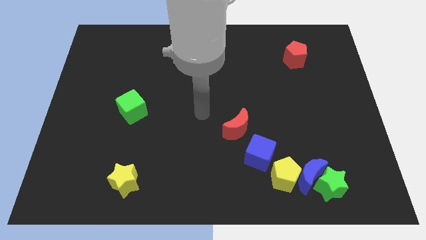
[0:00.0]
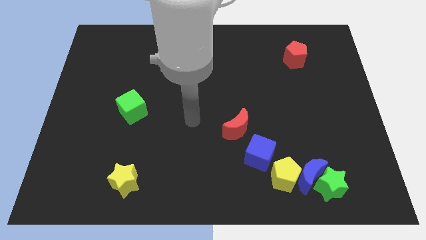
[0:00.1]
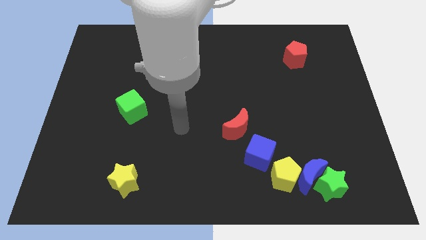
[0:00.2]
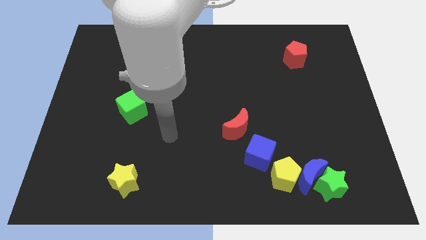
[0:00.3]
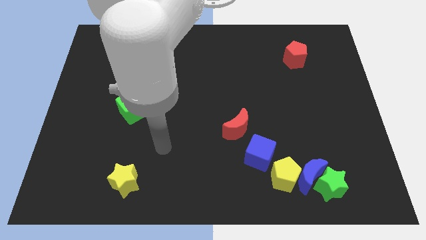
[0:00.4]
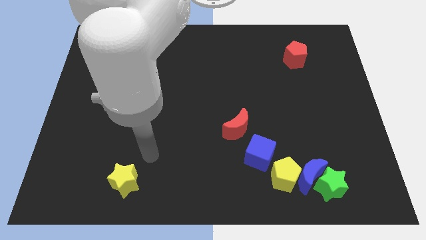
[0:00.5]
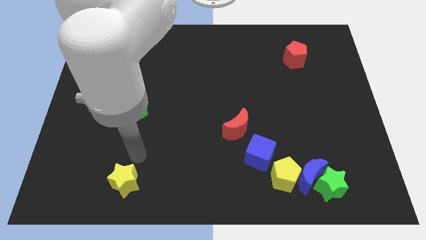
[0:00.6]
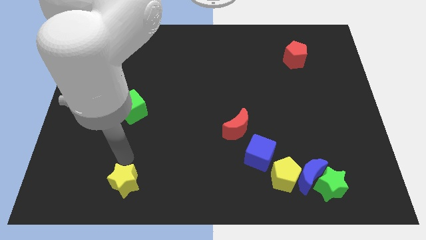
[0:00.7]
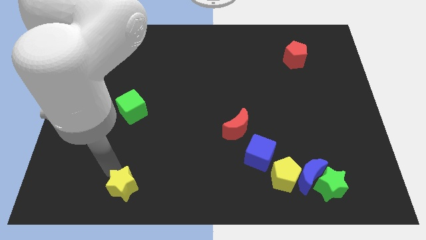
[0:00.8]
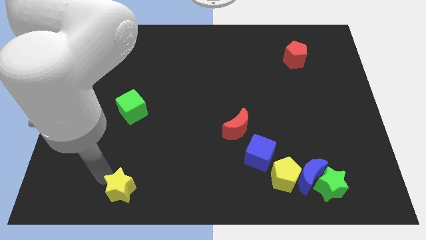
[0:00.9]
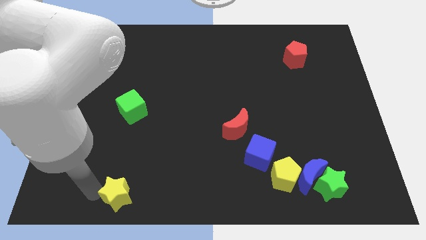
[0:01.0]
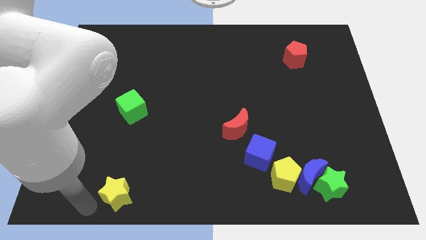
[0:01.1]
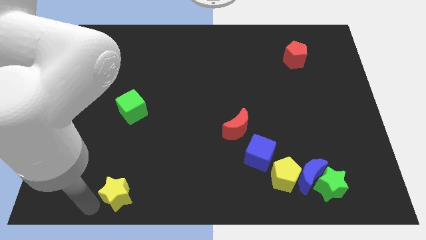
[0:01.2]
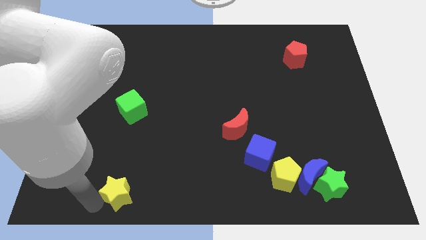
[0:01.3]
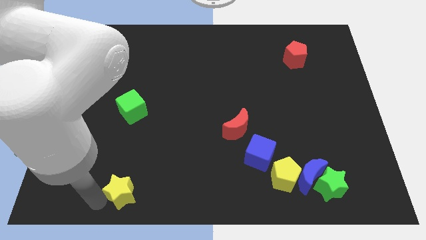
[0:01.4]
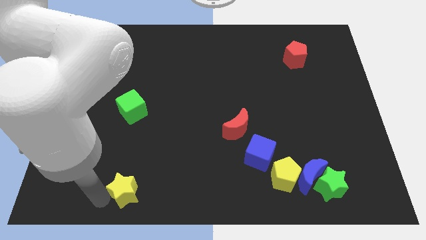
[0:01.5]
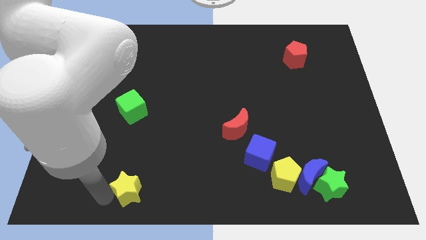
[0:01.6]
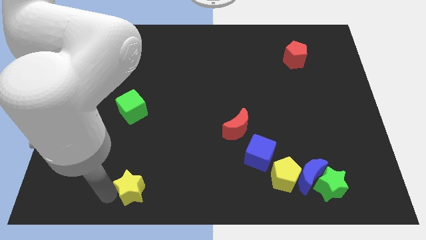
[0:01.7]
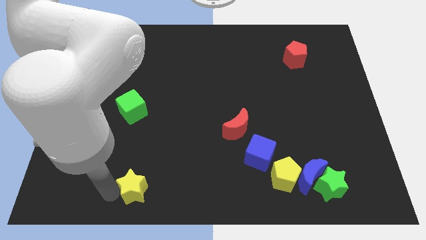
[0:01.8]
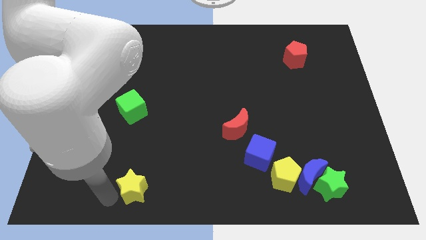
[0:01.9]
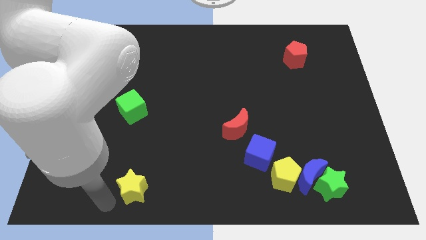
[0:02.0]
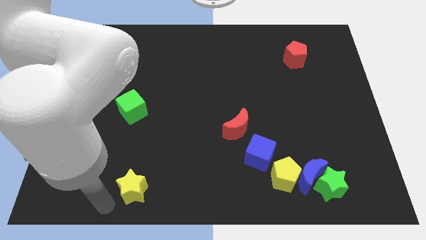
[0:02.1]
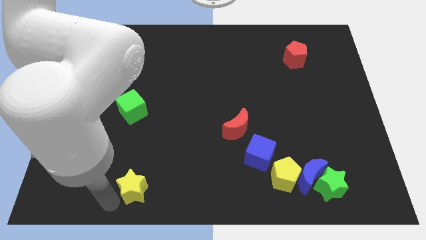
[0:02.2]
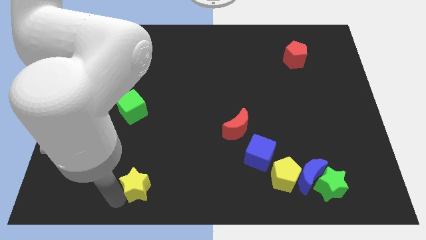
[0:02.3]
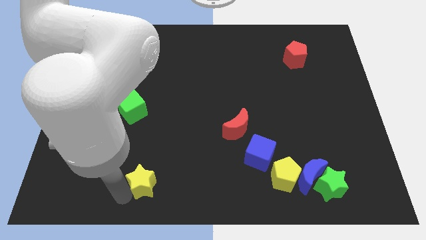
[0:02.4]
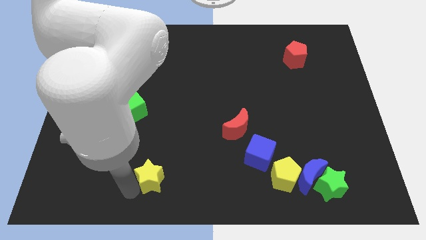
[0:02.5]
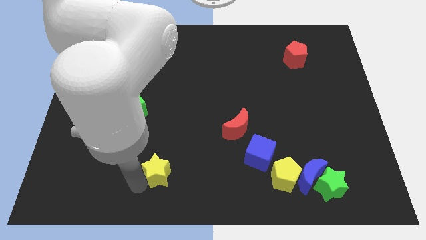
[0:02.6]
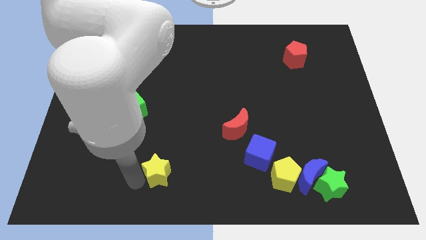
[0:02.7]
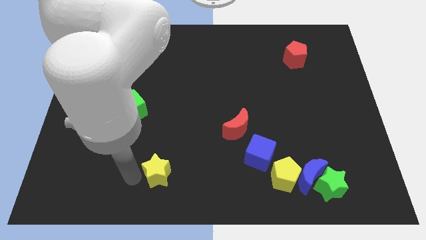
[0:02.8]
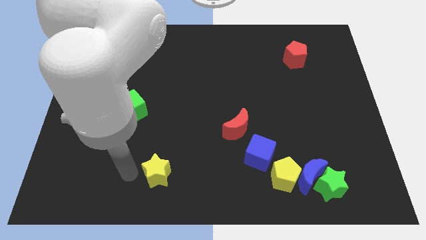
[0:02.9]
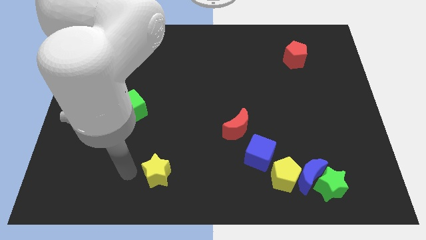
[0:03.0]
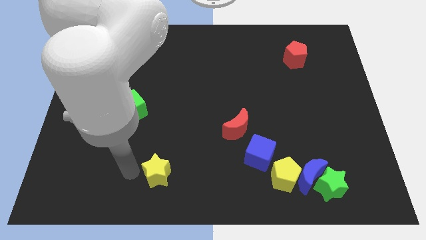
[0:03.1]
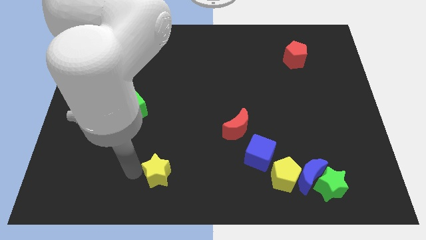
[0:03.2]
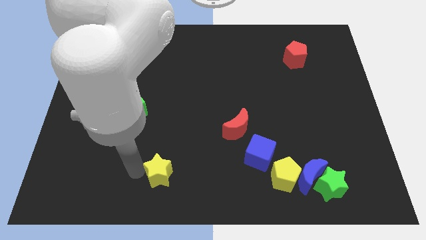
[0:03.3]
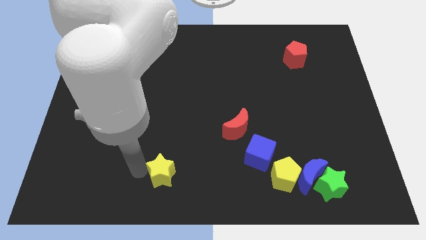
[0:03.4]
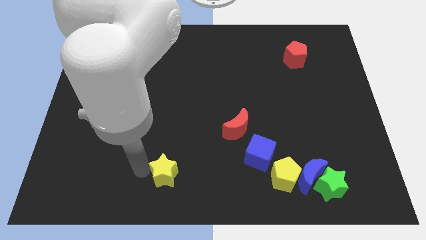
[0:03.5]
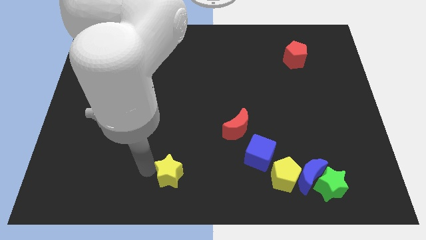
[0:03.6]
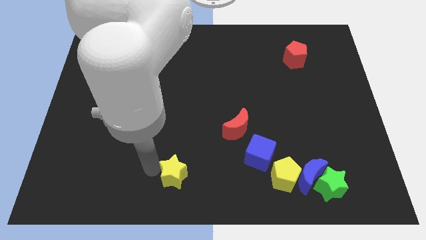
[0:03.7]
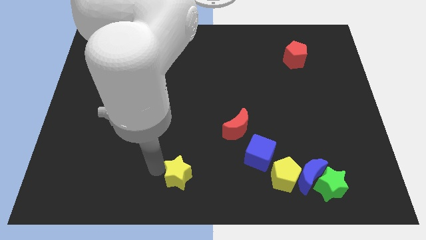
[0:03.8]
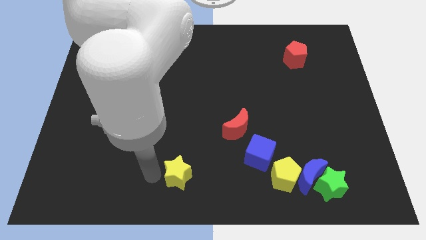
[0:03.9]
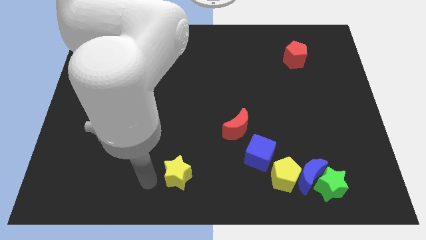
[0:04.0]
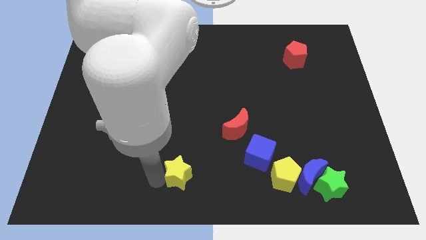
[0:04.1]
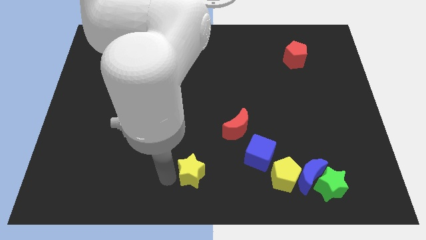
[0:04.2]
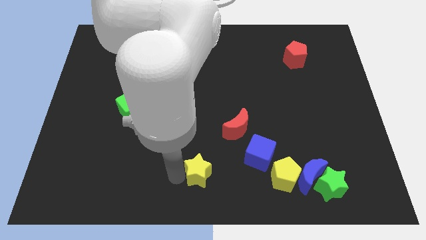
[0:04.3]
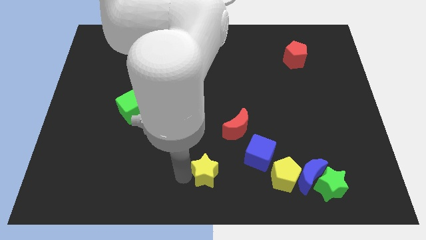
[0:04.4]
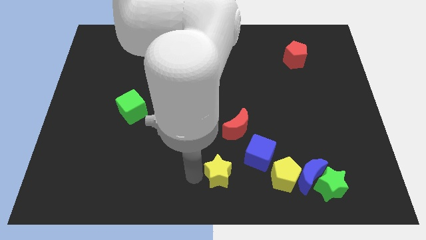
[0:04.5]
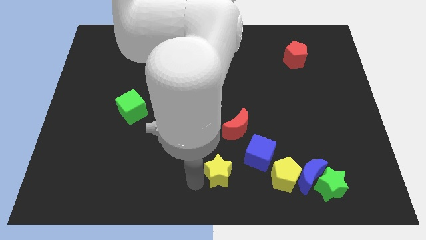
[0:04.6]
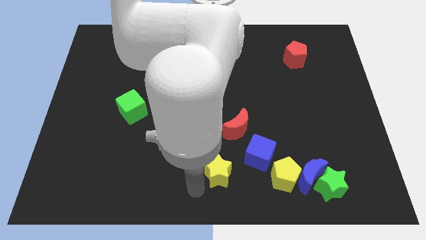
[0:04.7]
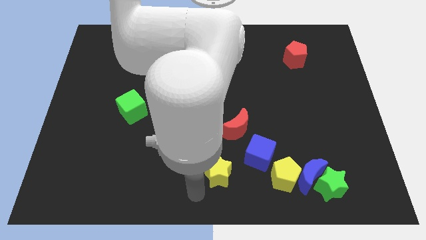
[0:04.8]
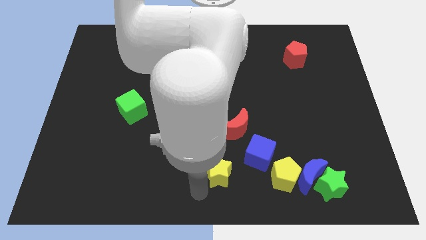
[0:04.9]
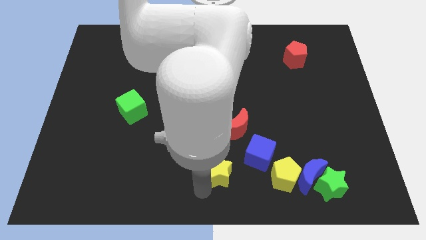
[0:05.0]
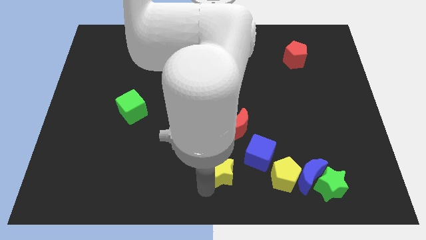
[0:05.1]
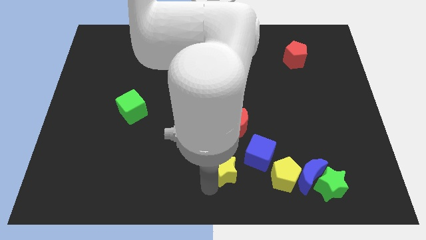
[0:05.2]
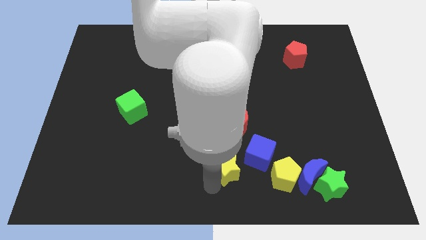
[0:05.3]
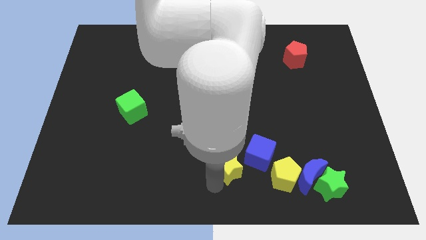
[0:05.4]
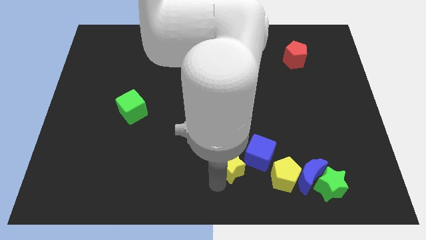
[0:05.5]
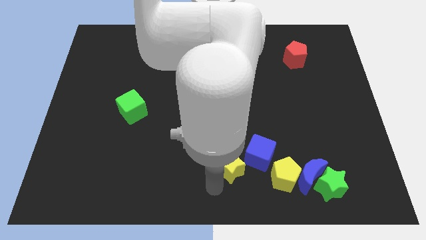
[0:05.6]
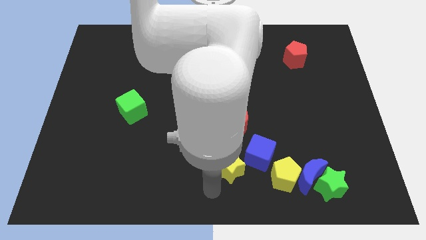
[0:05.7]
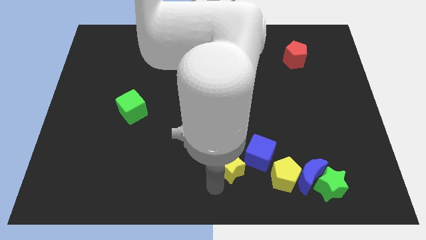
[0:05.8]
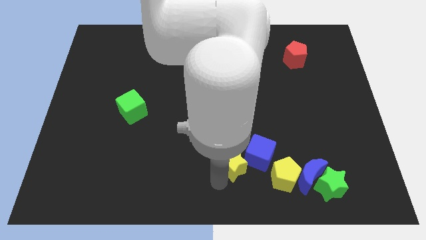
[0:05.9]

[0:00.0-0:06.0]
slide the yellow star to the blue cube

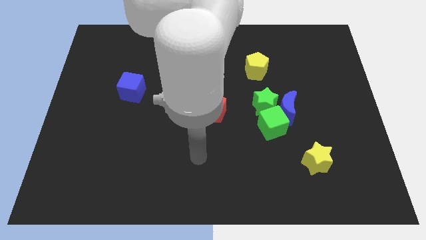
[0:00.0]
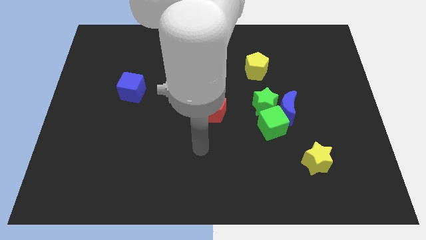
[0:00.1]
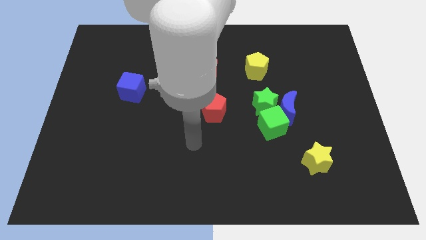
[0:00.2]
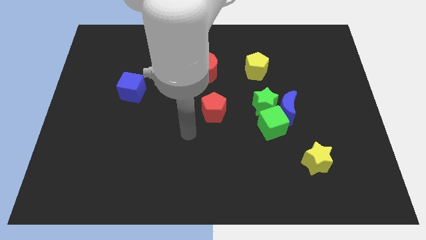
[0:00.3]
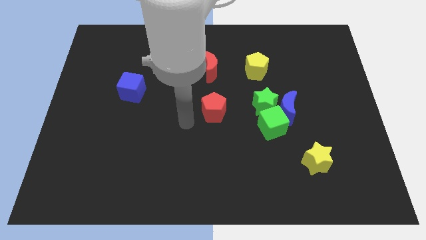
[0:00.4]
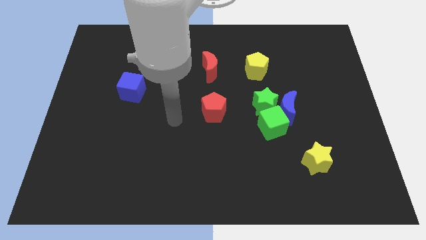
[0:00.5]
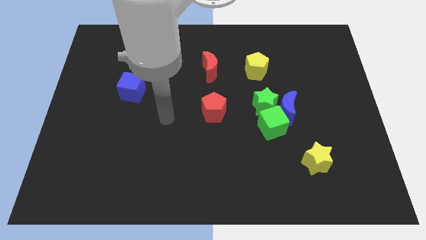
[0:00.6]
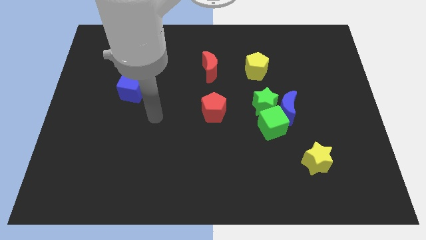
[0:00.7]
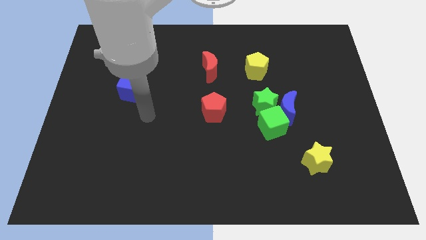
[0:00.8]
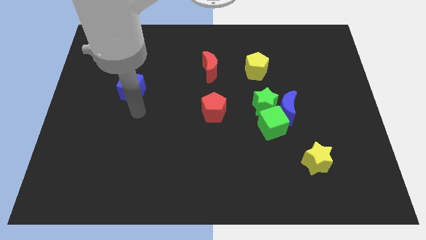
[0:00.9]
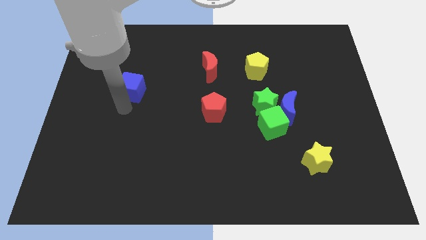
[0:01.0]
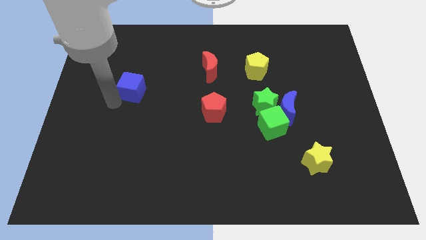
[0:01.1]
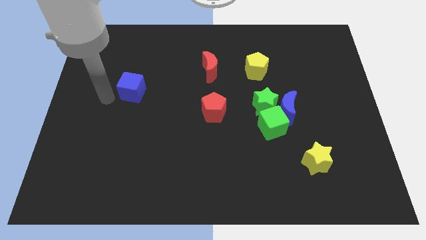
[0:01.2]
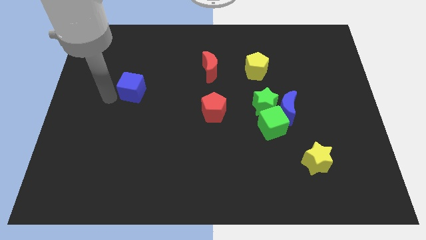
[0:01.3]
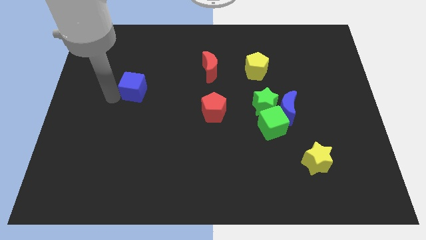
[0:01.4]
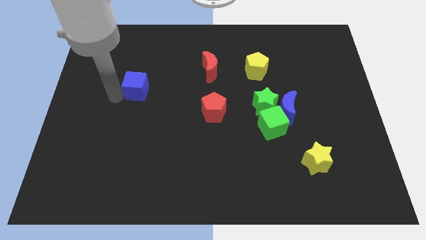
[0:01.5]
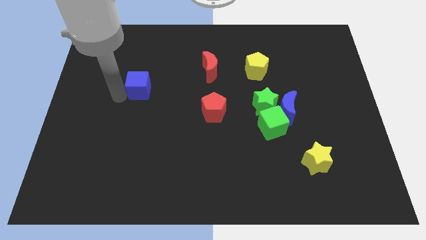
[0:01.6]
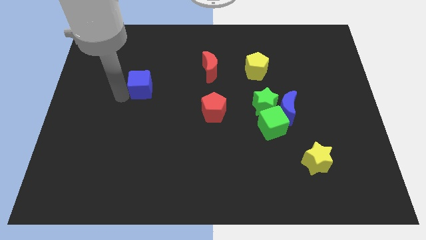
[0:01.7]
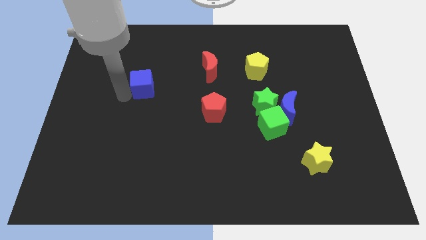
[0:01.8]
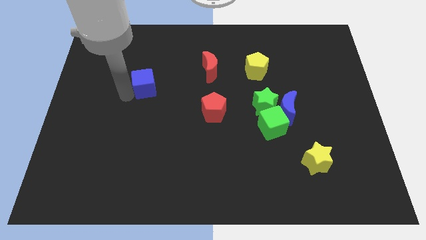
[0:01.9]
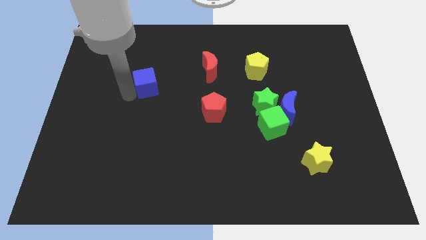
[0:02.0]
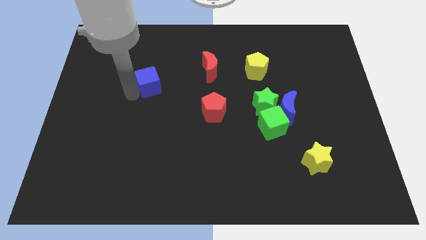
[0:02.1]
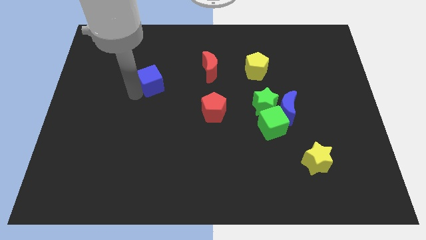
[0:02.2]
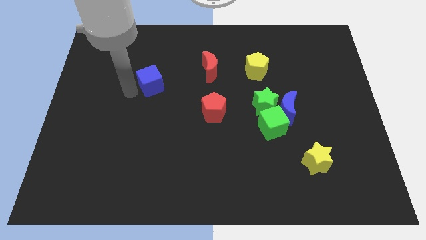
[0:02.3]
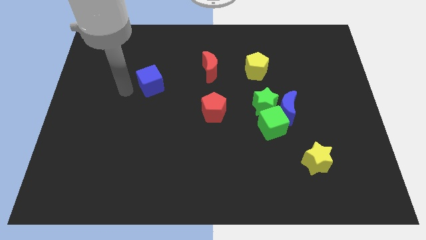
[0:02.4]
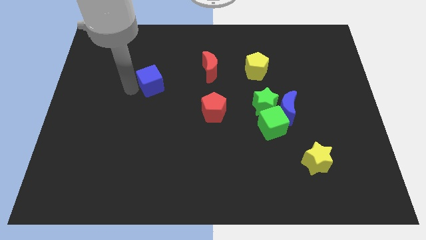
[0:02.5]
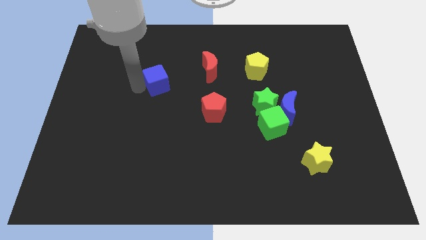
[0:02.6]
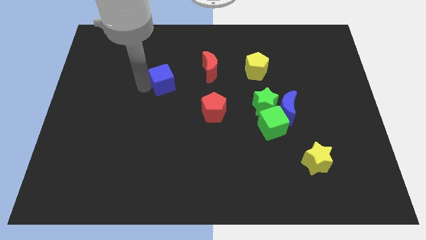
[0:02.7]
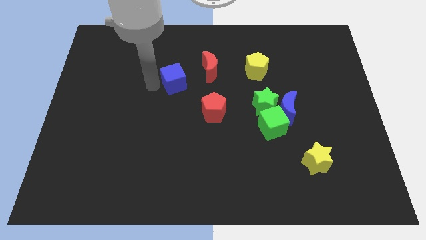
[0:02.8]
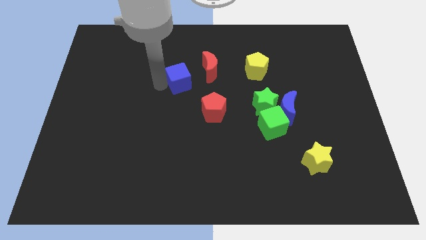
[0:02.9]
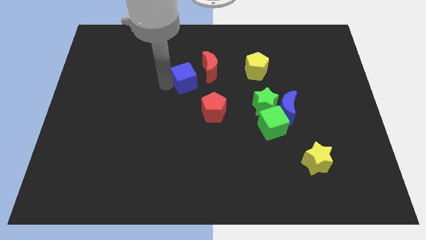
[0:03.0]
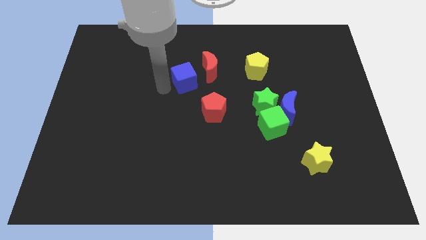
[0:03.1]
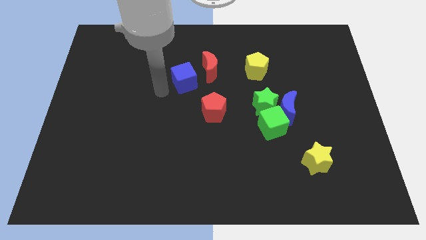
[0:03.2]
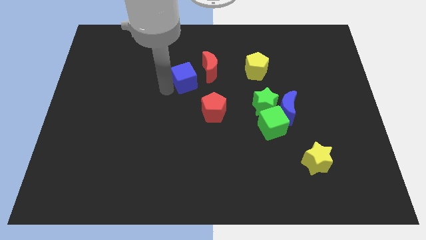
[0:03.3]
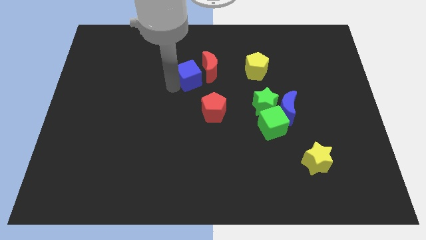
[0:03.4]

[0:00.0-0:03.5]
push the blue cube to the red moon
